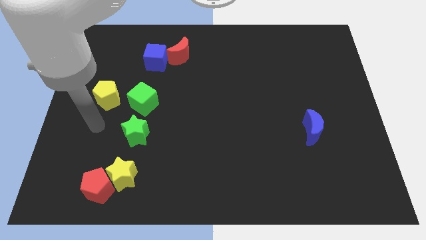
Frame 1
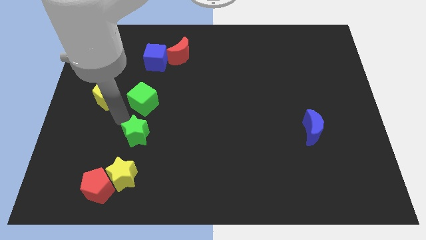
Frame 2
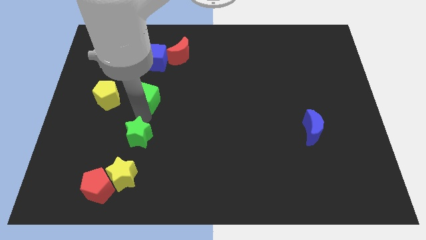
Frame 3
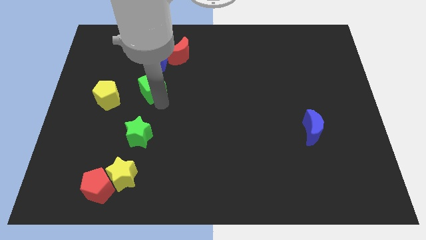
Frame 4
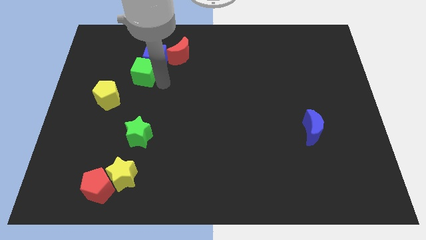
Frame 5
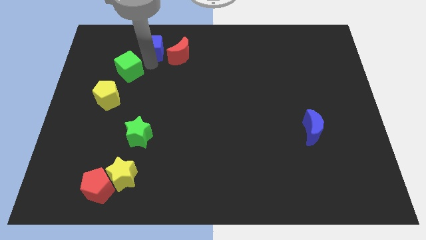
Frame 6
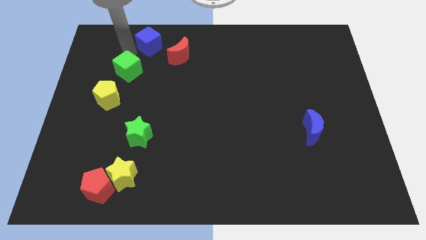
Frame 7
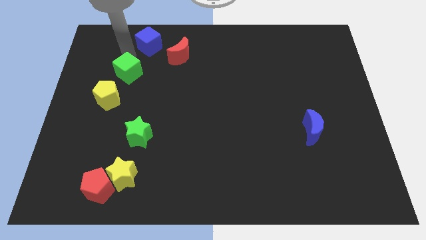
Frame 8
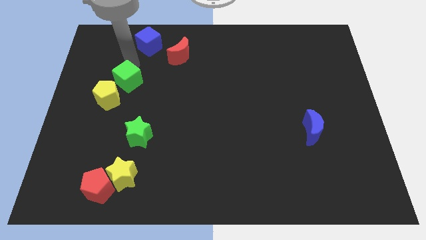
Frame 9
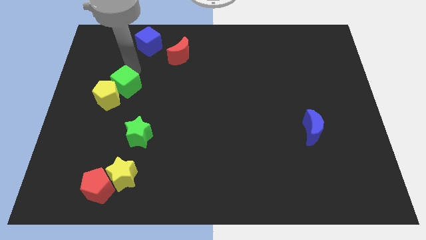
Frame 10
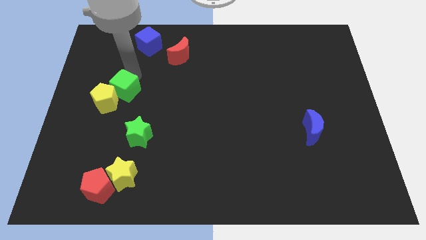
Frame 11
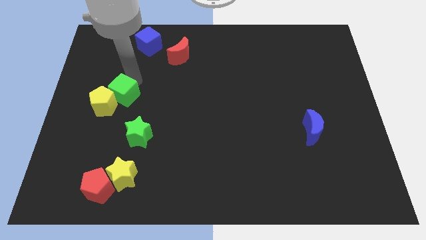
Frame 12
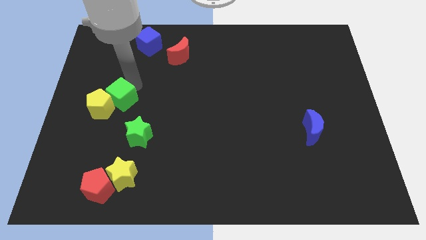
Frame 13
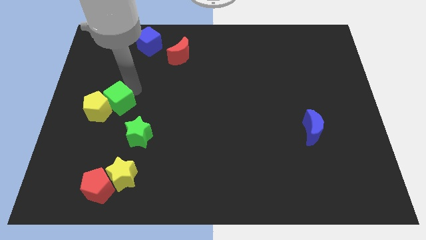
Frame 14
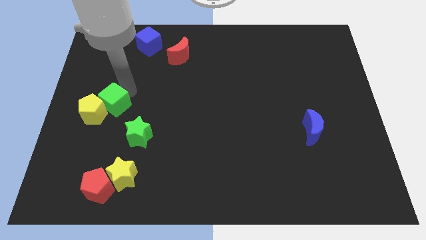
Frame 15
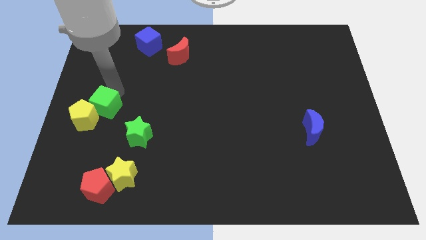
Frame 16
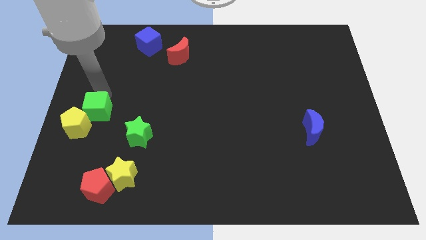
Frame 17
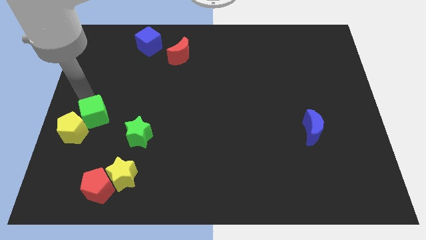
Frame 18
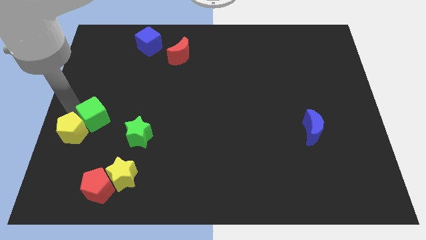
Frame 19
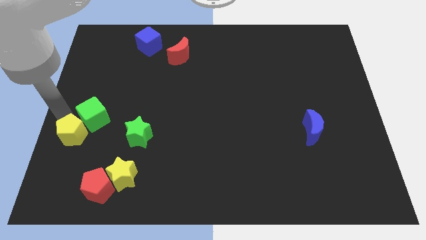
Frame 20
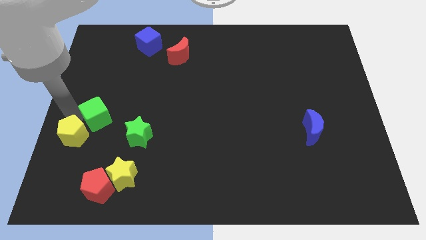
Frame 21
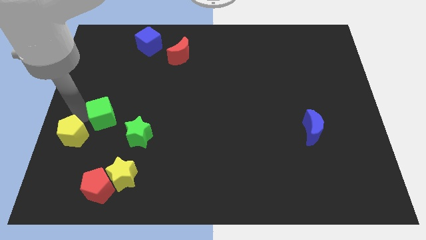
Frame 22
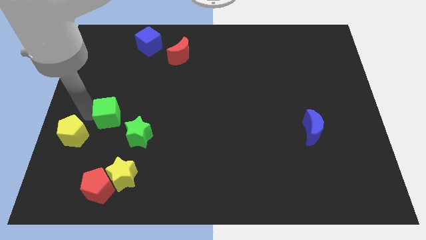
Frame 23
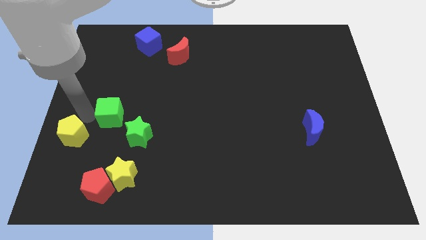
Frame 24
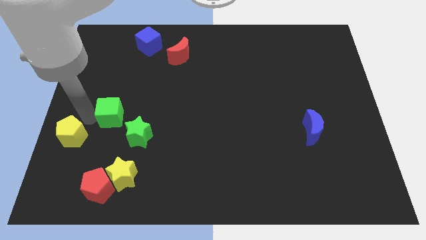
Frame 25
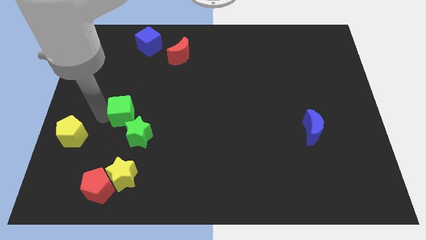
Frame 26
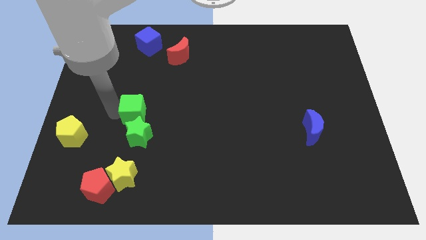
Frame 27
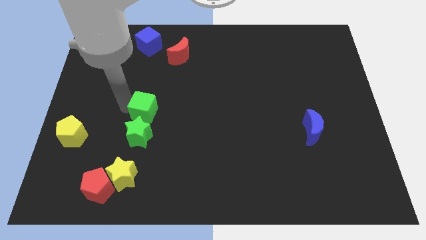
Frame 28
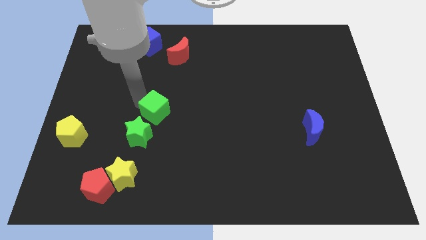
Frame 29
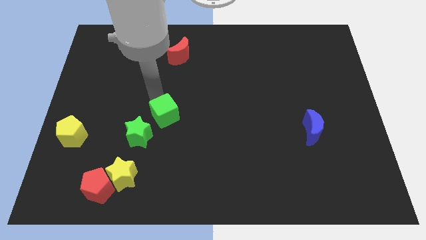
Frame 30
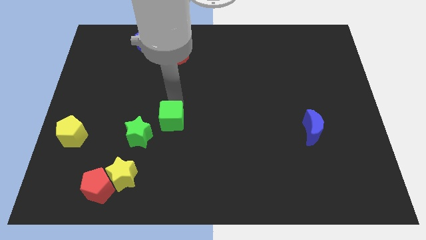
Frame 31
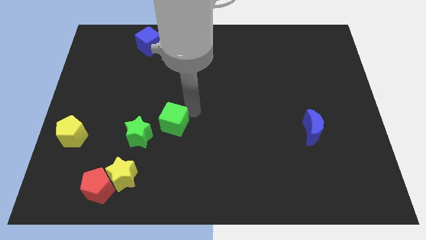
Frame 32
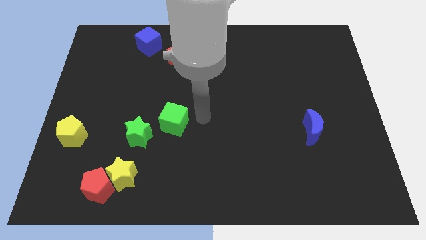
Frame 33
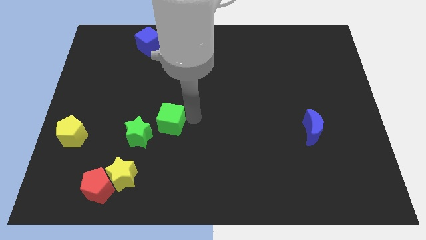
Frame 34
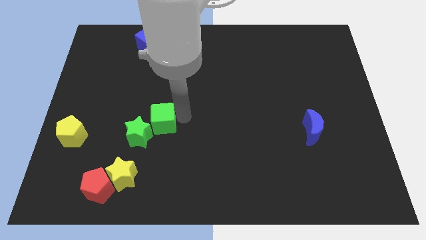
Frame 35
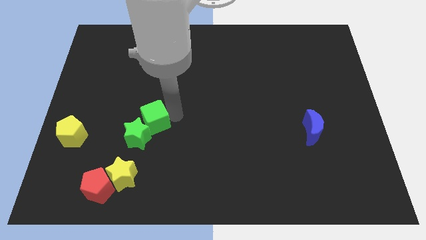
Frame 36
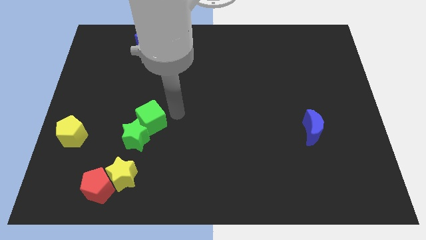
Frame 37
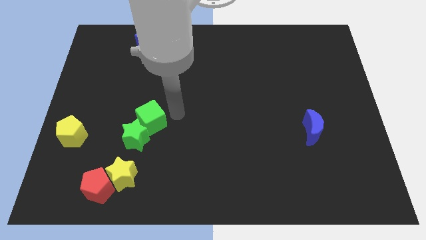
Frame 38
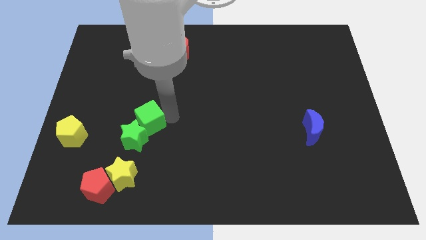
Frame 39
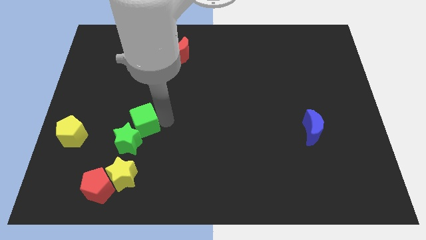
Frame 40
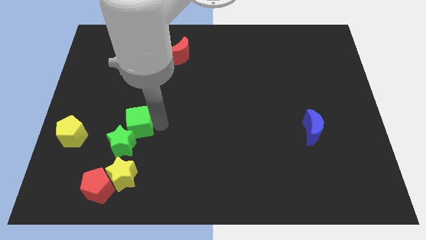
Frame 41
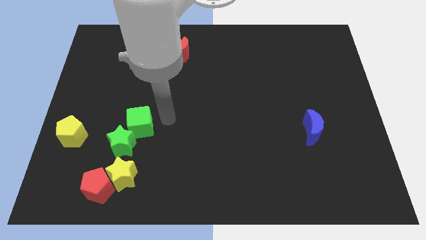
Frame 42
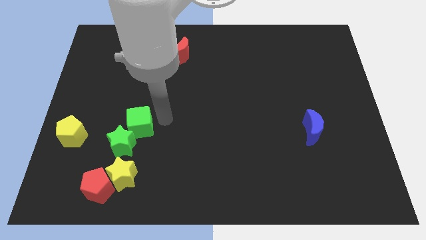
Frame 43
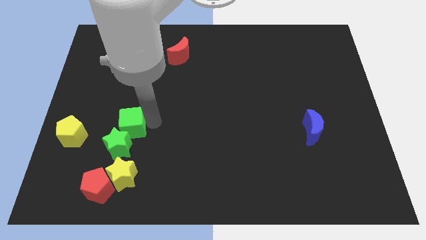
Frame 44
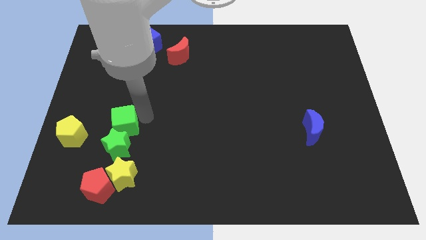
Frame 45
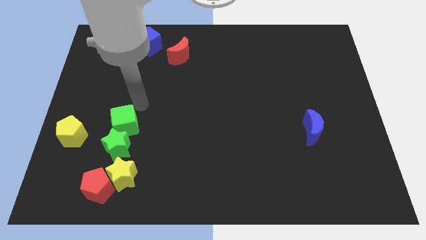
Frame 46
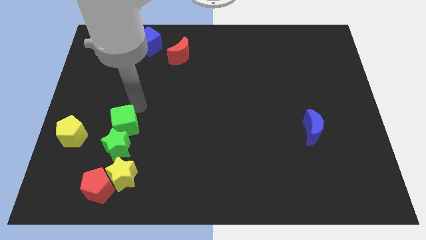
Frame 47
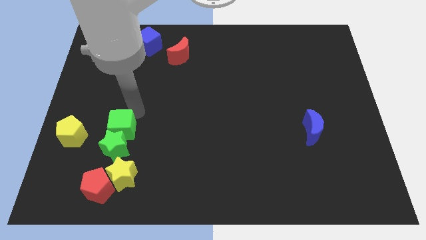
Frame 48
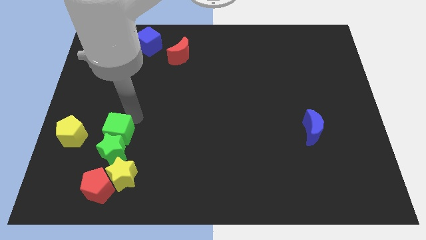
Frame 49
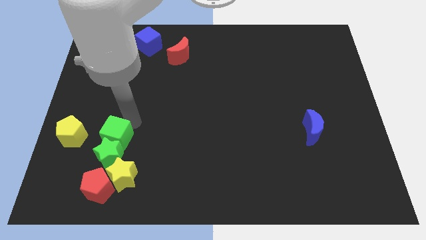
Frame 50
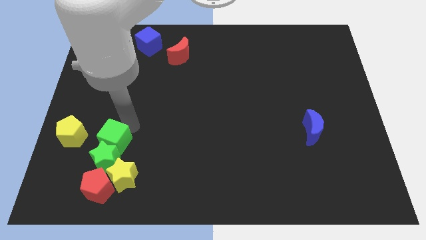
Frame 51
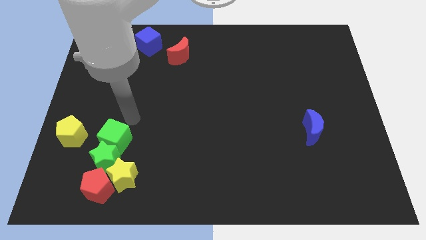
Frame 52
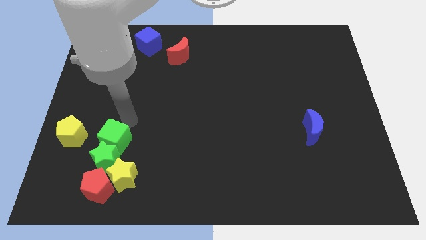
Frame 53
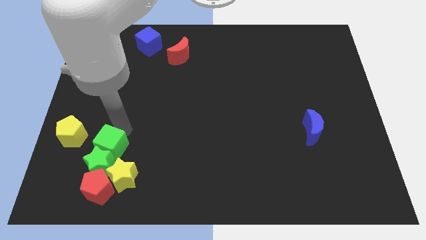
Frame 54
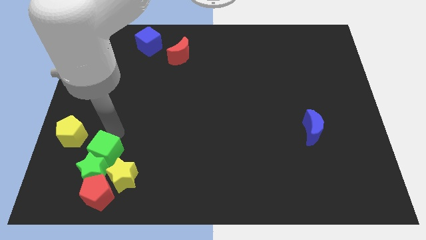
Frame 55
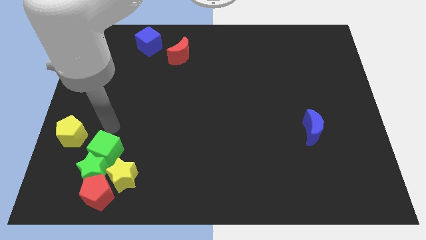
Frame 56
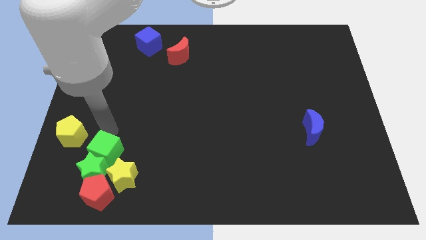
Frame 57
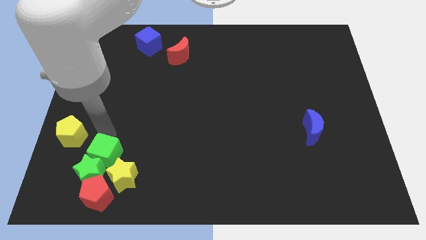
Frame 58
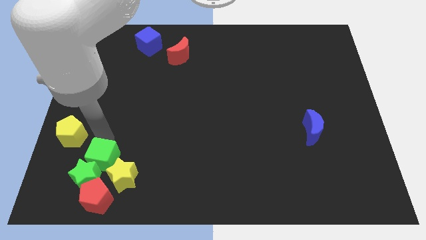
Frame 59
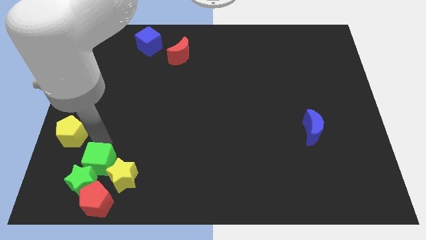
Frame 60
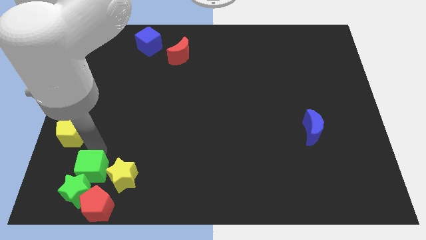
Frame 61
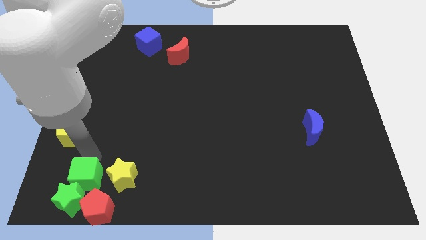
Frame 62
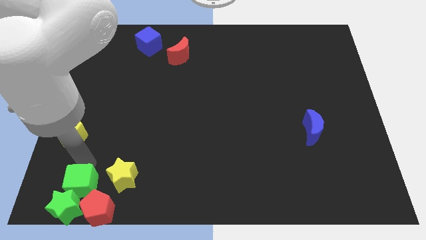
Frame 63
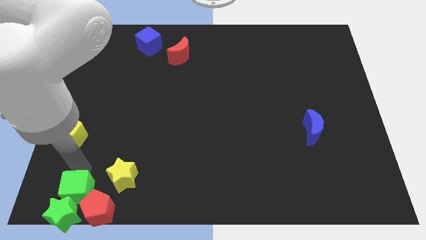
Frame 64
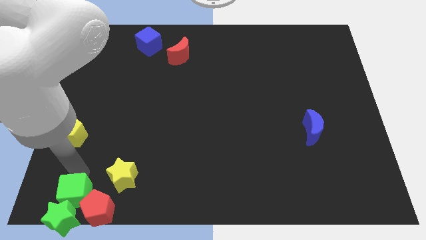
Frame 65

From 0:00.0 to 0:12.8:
slide the green cube close to the red pentagon
